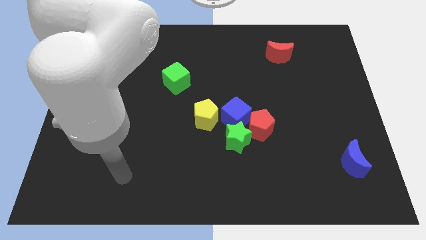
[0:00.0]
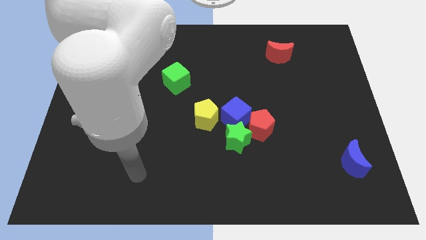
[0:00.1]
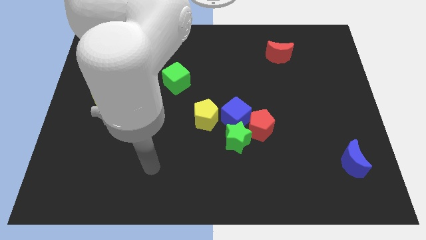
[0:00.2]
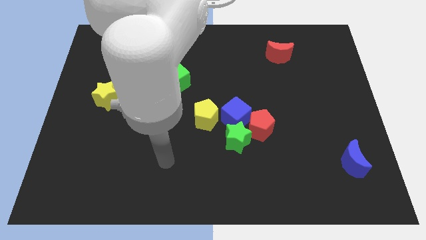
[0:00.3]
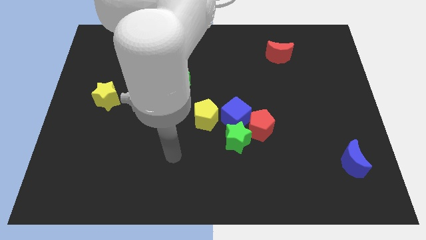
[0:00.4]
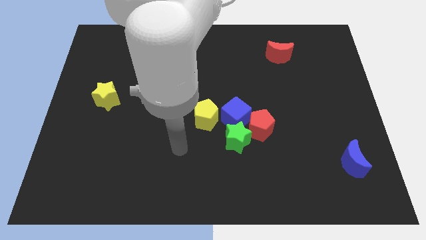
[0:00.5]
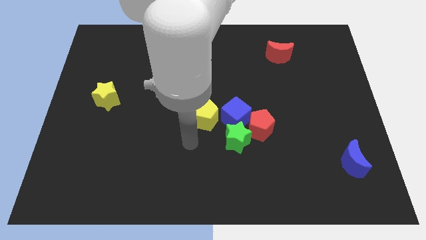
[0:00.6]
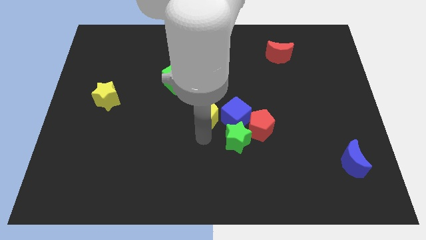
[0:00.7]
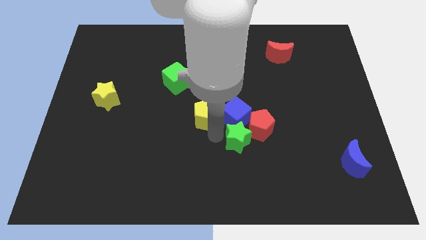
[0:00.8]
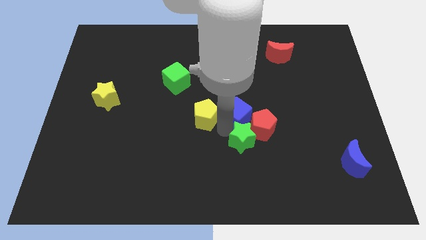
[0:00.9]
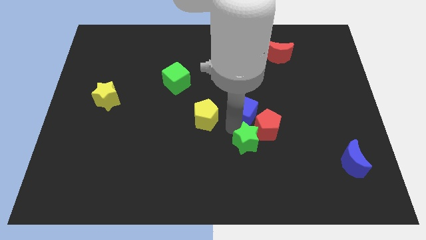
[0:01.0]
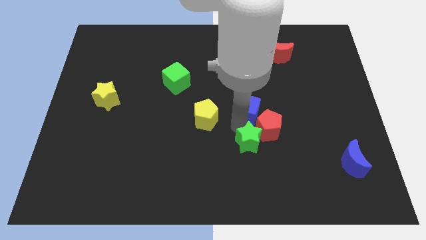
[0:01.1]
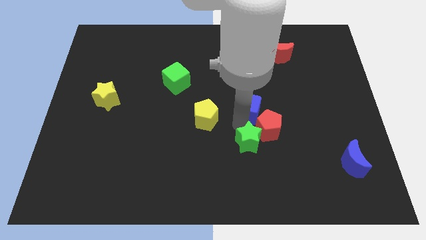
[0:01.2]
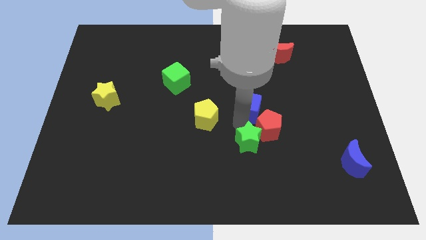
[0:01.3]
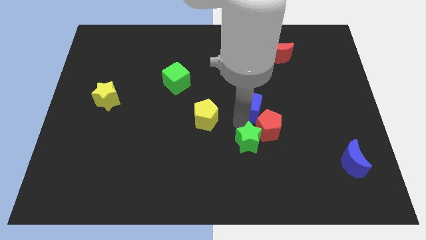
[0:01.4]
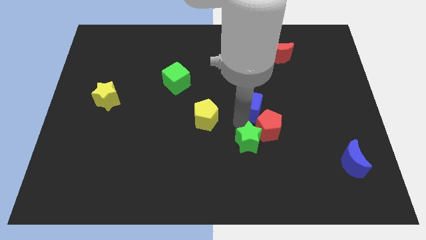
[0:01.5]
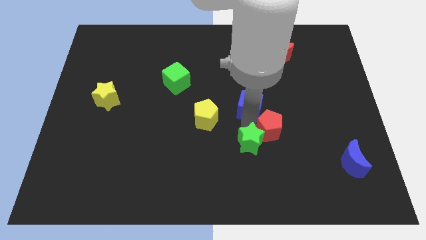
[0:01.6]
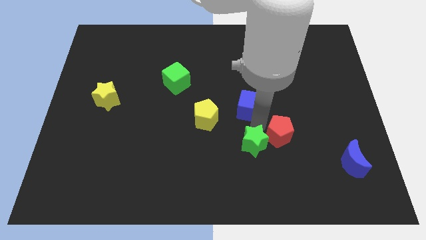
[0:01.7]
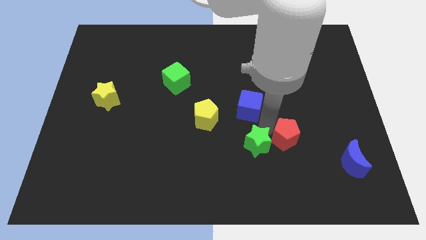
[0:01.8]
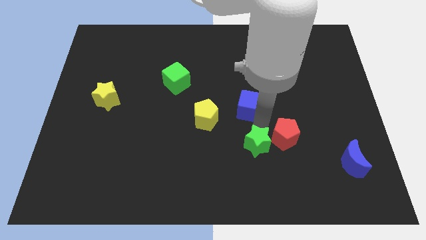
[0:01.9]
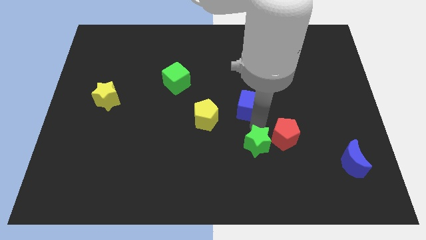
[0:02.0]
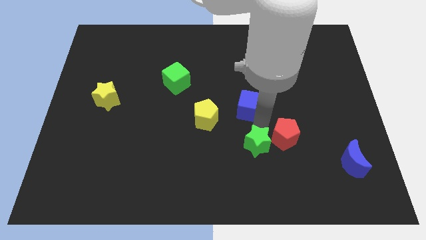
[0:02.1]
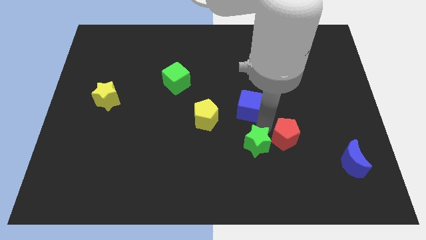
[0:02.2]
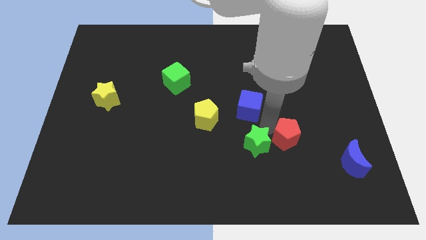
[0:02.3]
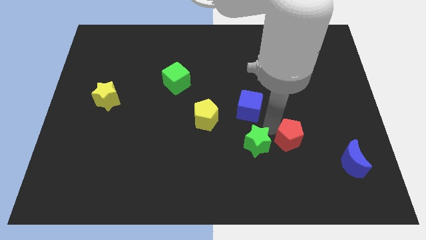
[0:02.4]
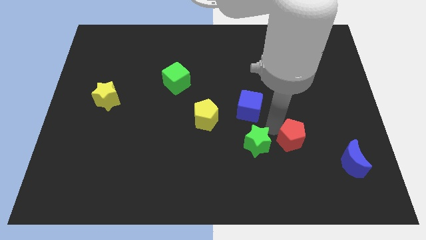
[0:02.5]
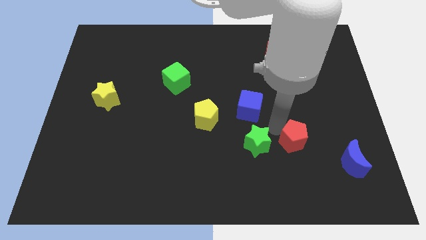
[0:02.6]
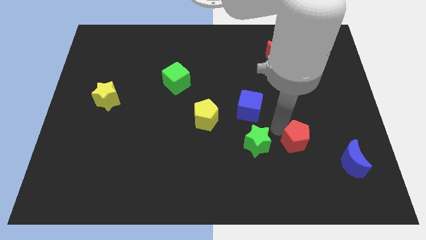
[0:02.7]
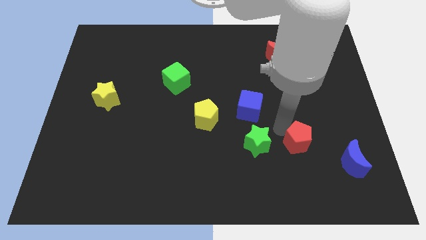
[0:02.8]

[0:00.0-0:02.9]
separate the red pentagon from the green star and blue cube

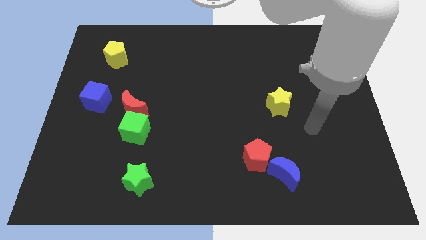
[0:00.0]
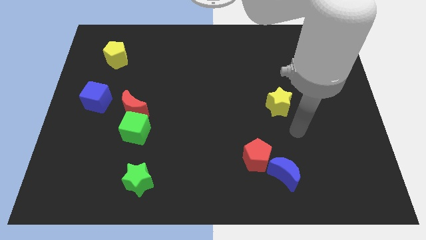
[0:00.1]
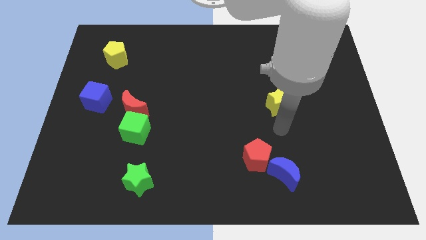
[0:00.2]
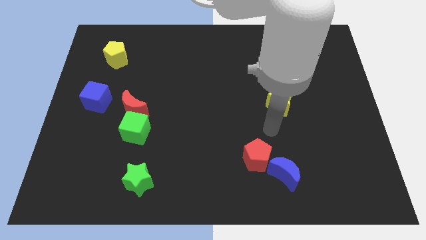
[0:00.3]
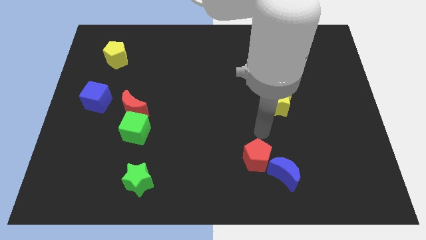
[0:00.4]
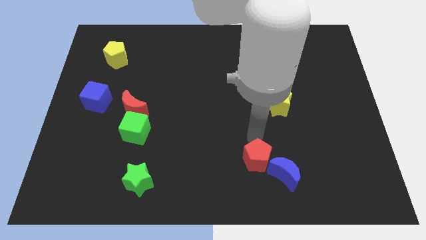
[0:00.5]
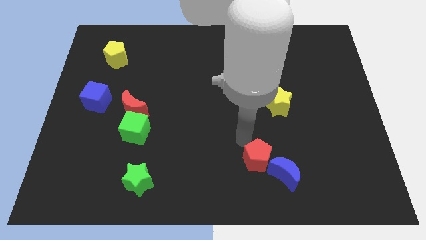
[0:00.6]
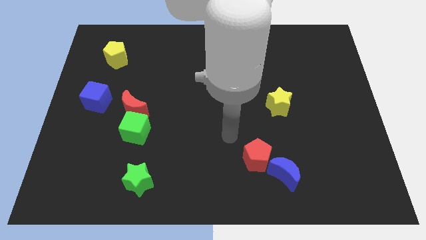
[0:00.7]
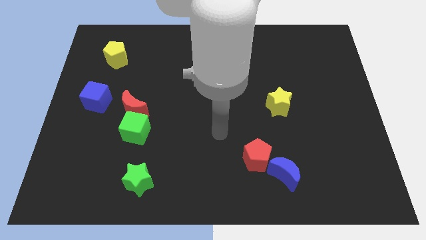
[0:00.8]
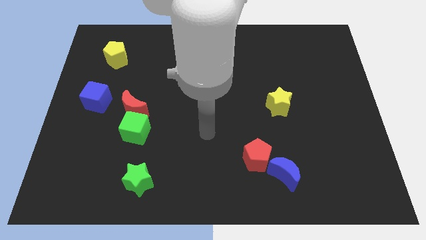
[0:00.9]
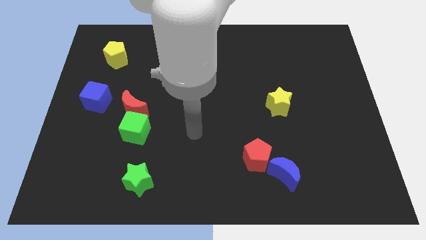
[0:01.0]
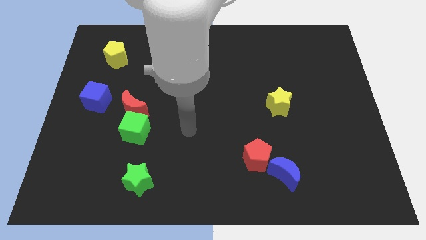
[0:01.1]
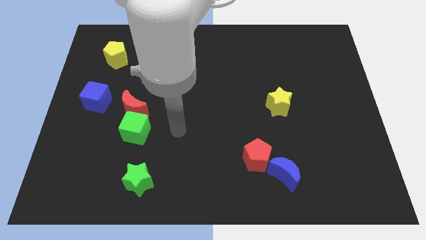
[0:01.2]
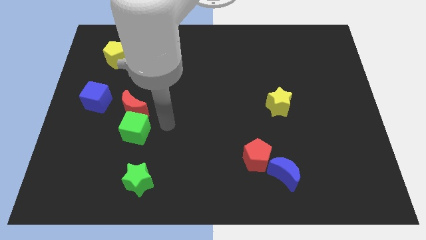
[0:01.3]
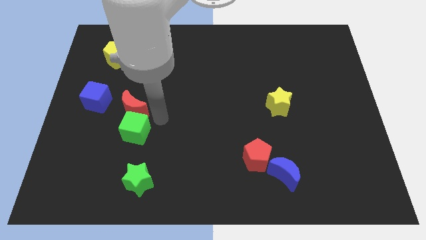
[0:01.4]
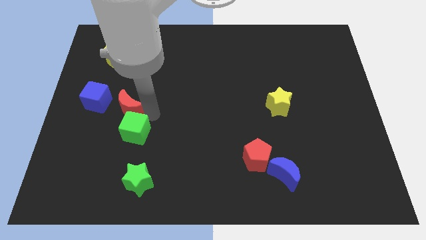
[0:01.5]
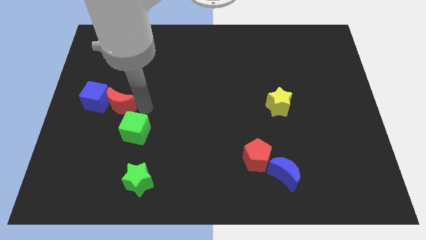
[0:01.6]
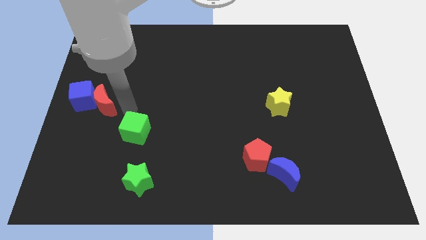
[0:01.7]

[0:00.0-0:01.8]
pull the green cube apart from the red moon

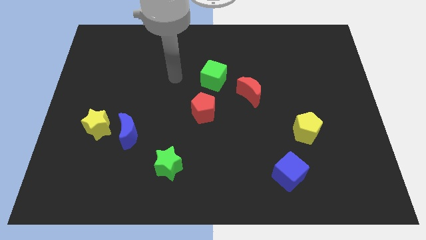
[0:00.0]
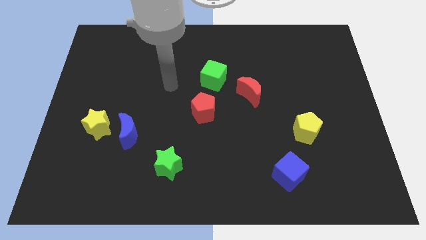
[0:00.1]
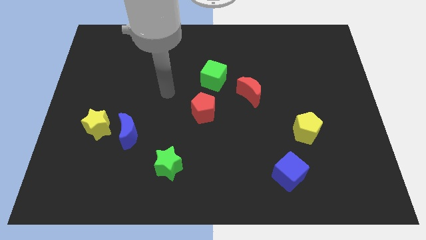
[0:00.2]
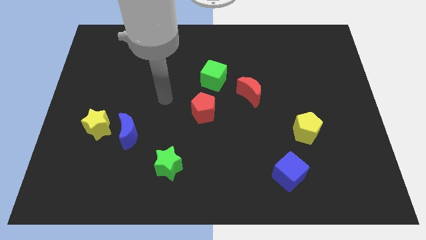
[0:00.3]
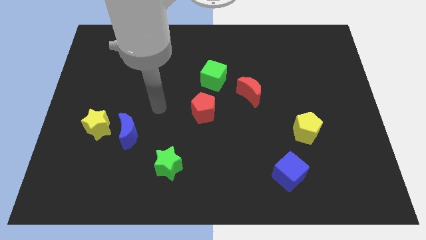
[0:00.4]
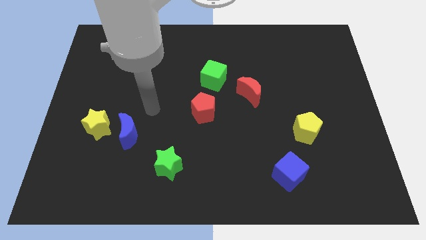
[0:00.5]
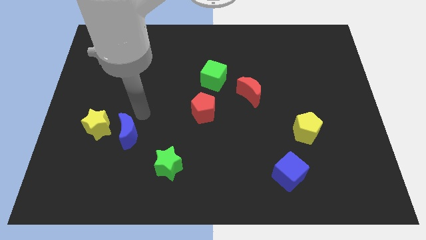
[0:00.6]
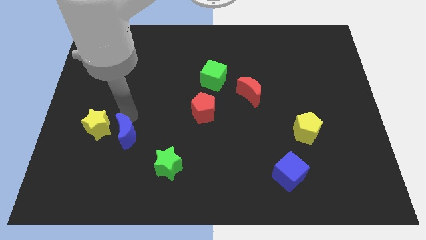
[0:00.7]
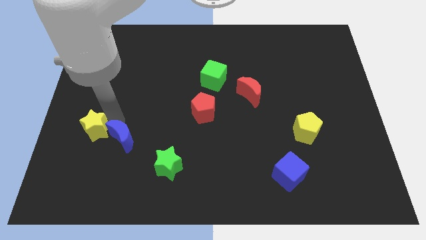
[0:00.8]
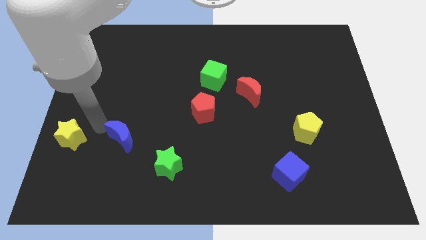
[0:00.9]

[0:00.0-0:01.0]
separate the blue moon from the yellow star

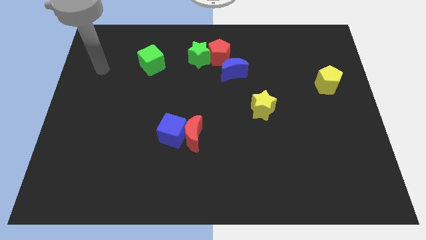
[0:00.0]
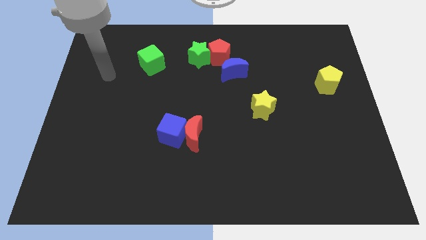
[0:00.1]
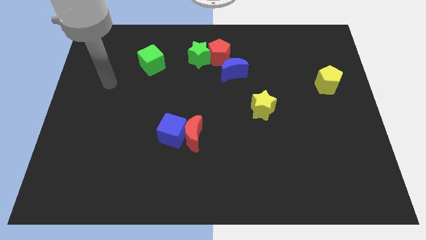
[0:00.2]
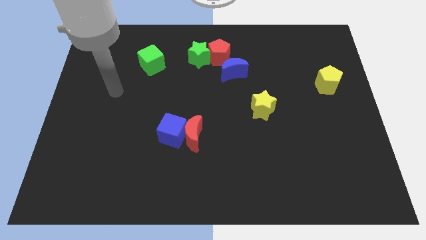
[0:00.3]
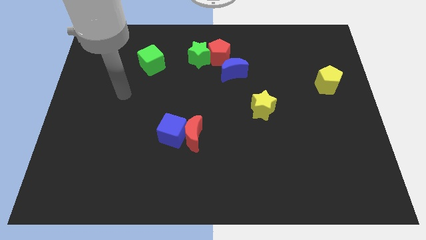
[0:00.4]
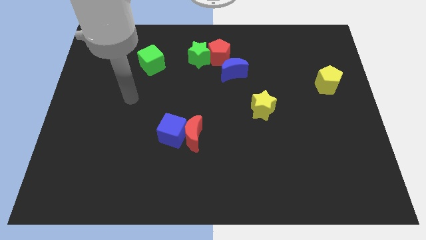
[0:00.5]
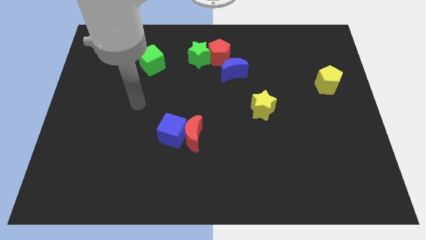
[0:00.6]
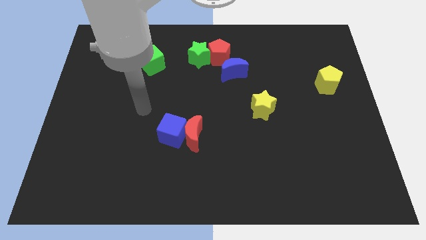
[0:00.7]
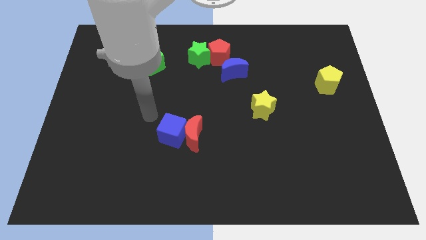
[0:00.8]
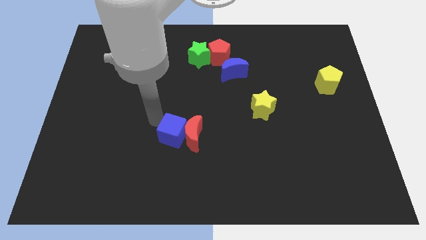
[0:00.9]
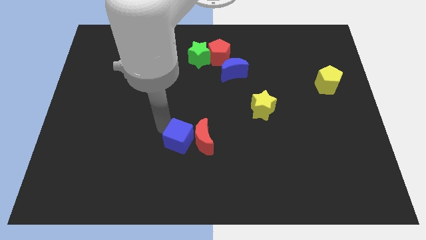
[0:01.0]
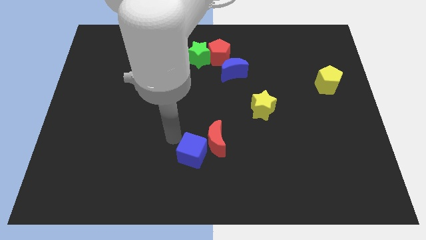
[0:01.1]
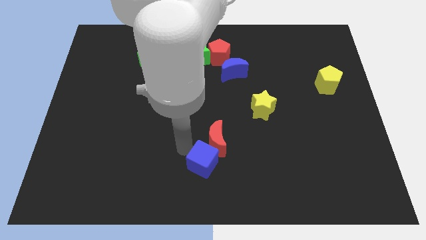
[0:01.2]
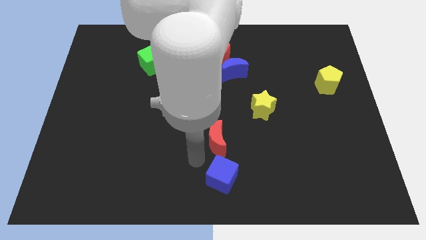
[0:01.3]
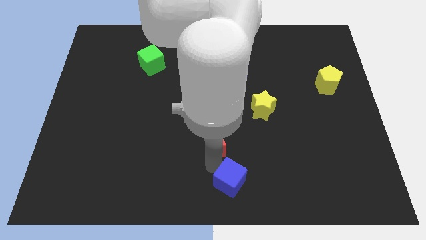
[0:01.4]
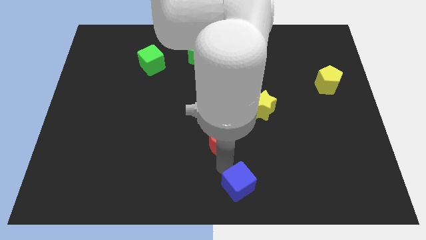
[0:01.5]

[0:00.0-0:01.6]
move the red moon away from the blue cube

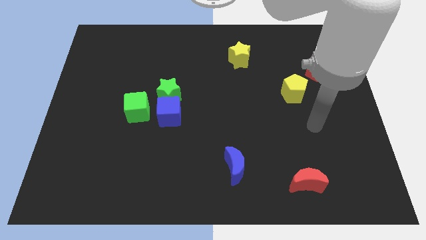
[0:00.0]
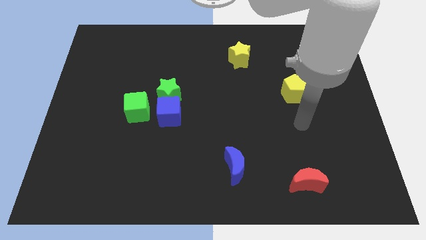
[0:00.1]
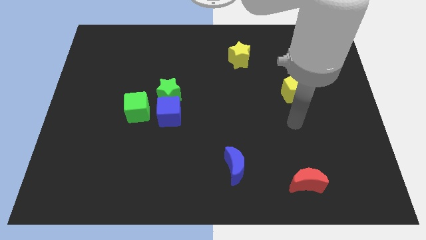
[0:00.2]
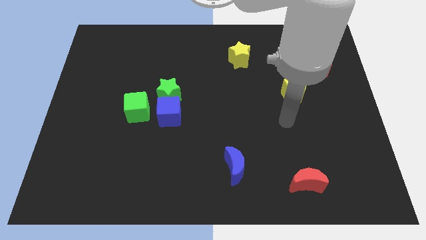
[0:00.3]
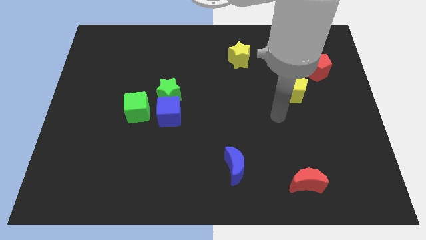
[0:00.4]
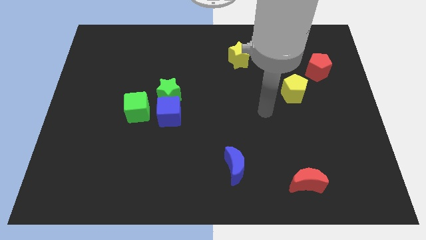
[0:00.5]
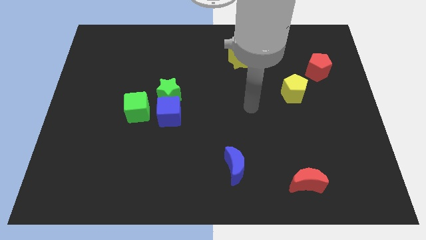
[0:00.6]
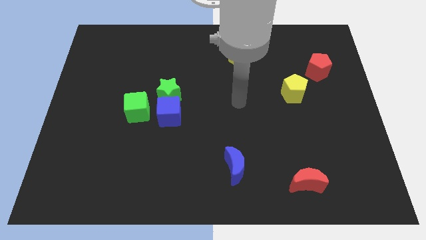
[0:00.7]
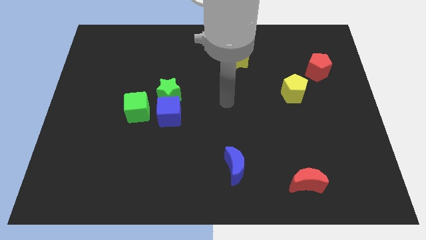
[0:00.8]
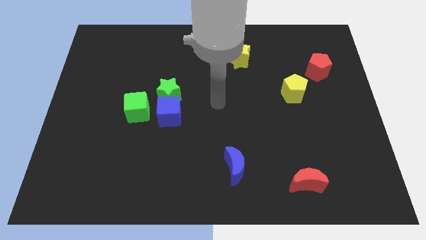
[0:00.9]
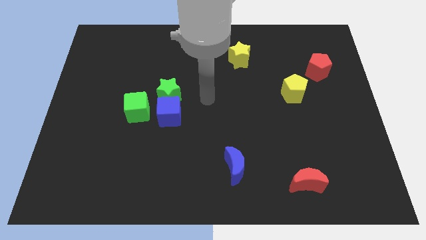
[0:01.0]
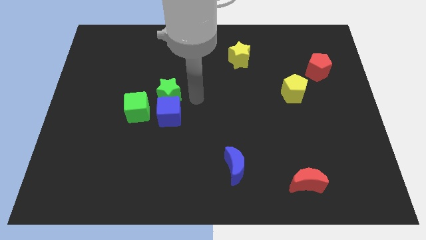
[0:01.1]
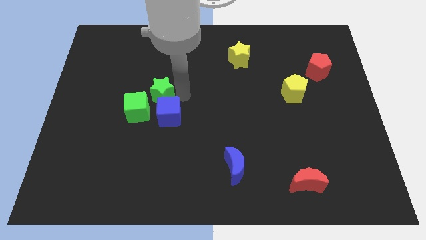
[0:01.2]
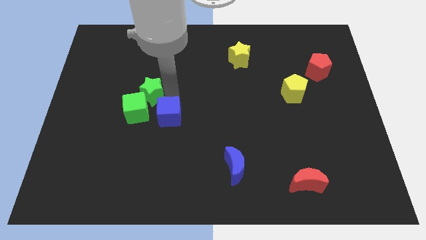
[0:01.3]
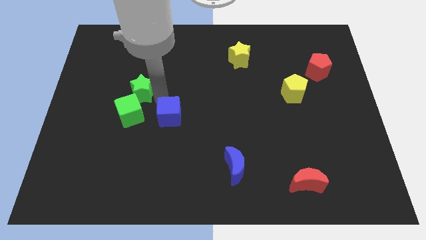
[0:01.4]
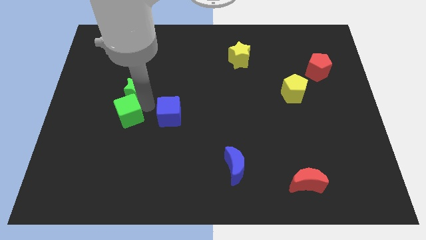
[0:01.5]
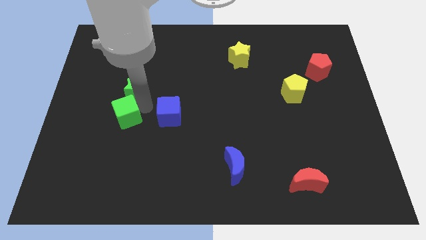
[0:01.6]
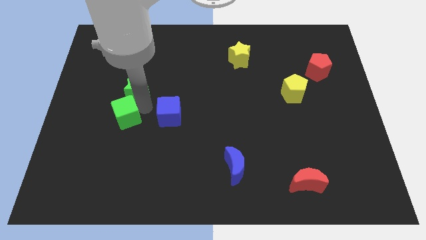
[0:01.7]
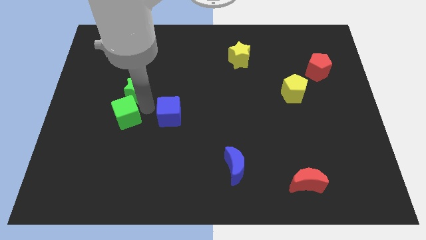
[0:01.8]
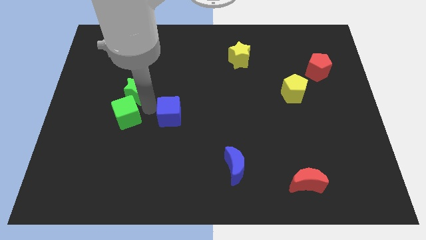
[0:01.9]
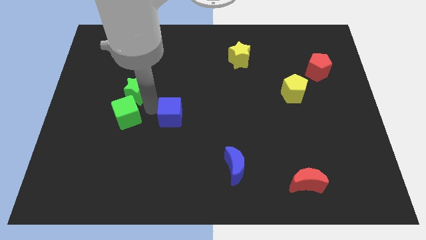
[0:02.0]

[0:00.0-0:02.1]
pull the blue cube apart from the green star and green cube
